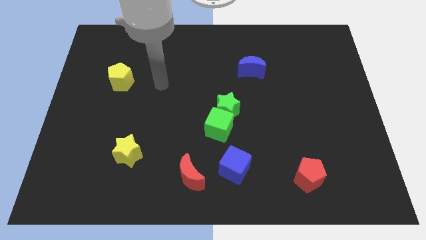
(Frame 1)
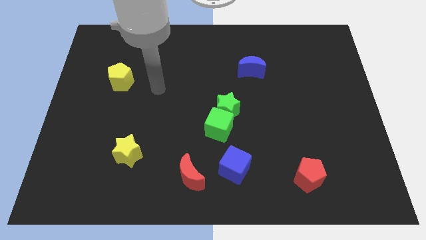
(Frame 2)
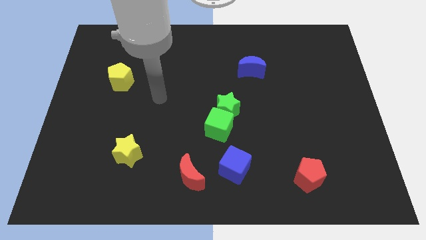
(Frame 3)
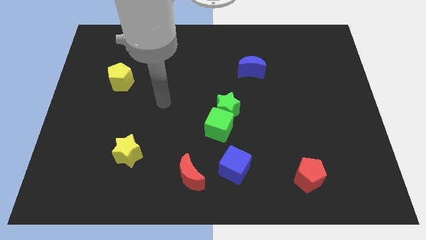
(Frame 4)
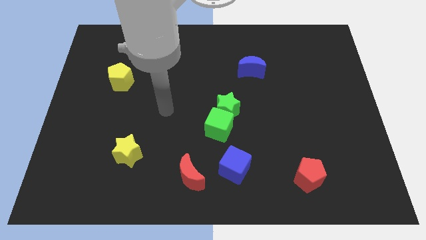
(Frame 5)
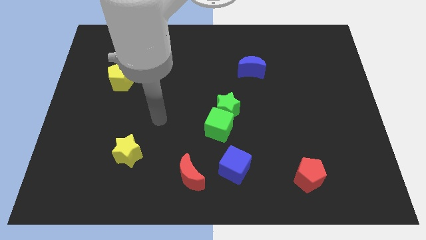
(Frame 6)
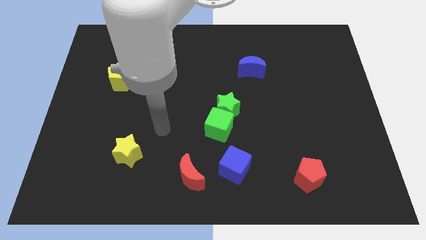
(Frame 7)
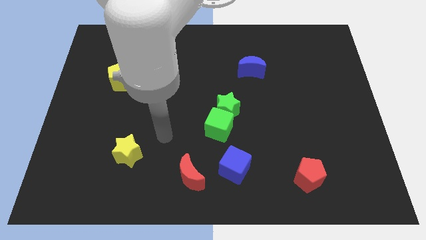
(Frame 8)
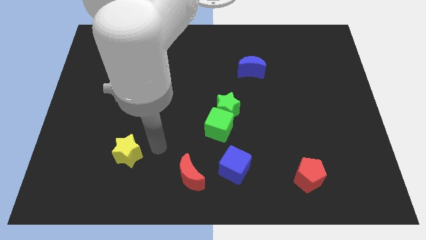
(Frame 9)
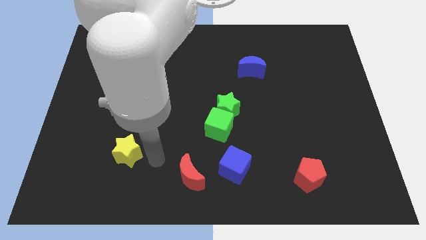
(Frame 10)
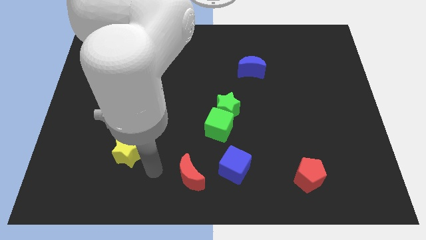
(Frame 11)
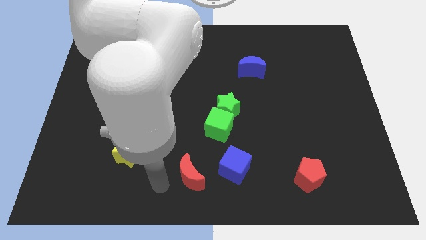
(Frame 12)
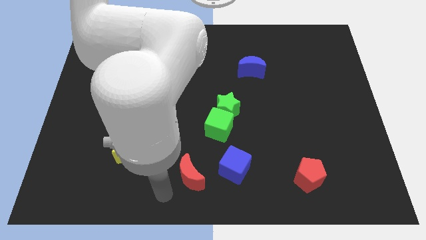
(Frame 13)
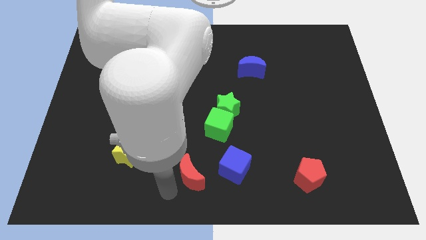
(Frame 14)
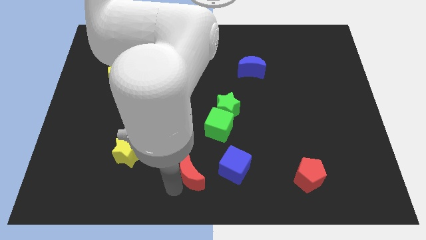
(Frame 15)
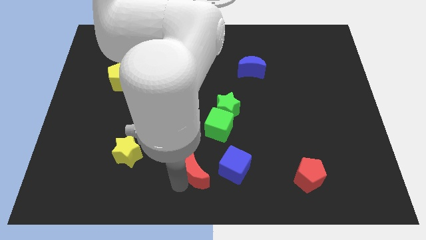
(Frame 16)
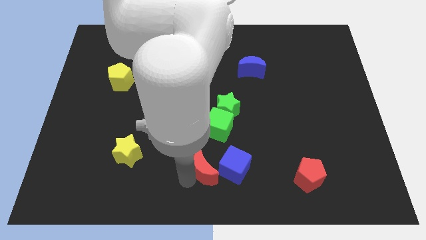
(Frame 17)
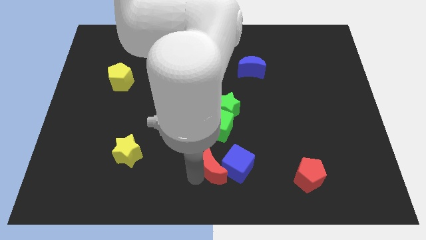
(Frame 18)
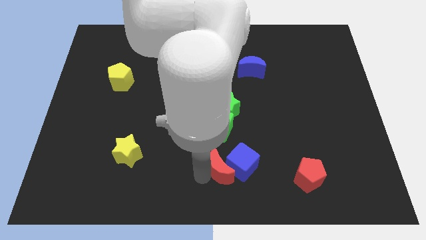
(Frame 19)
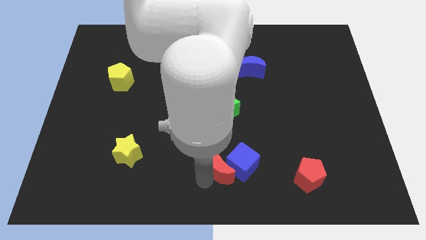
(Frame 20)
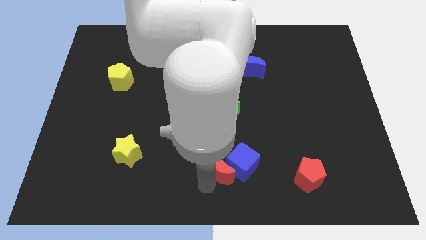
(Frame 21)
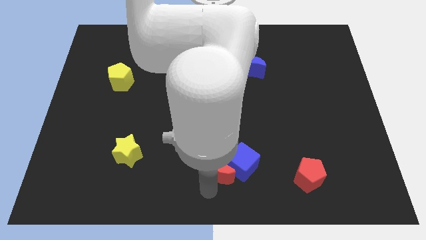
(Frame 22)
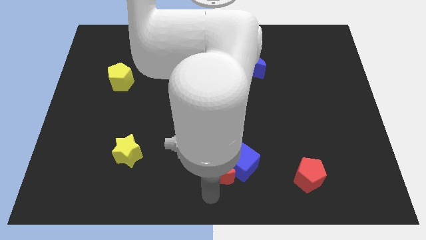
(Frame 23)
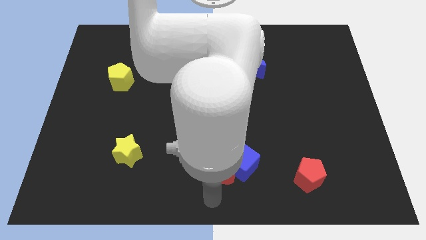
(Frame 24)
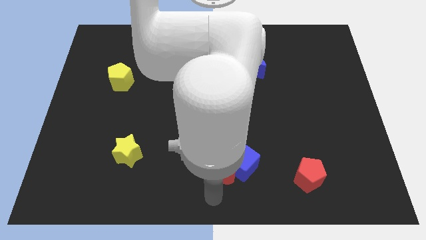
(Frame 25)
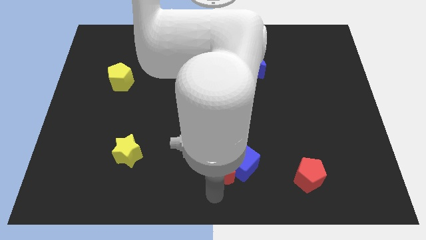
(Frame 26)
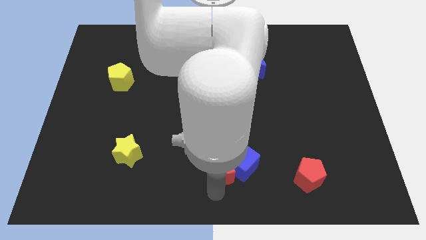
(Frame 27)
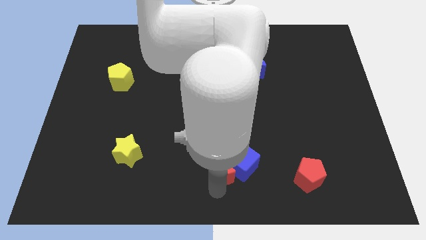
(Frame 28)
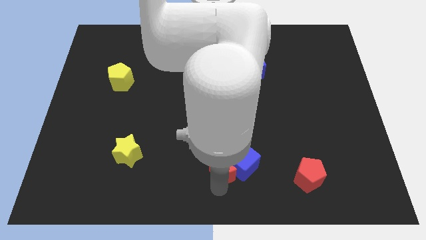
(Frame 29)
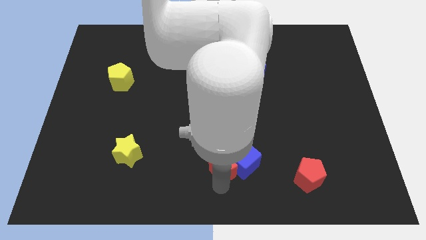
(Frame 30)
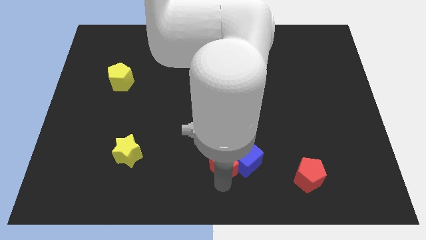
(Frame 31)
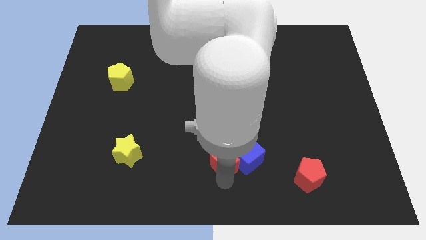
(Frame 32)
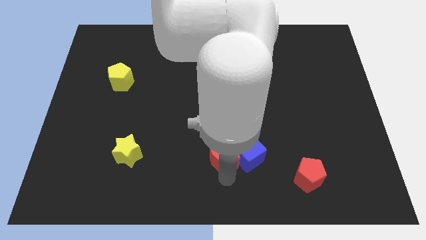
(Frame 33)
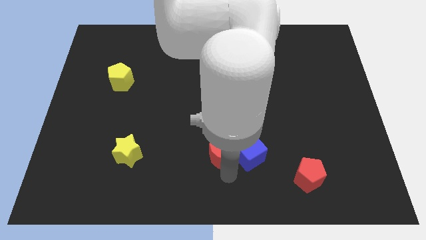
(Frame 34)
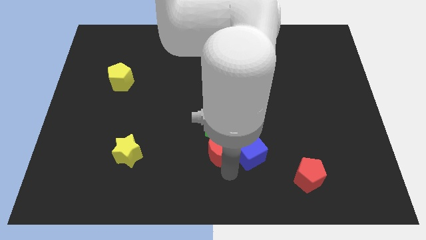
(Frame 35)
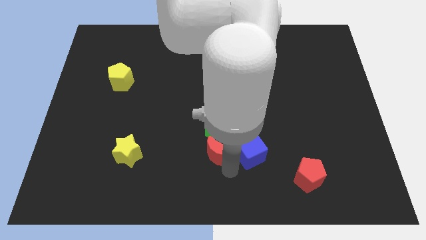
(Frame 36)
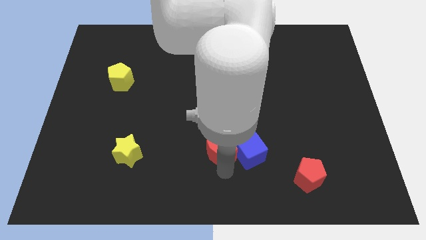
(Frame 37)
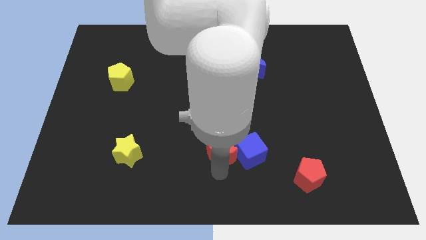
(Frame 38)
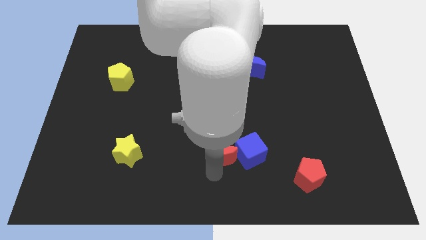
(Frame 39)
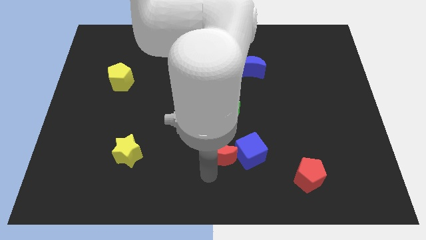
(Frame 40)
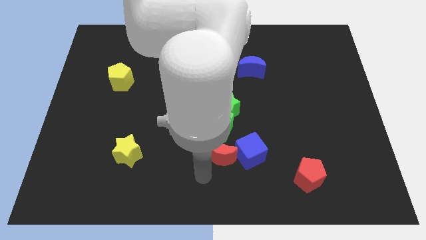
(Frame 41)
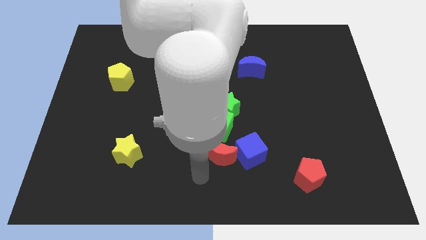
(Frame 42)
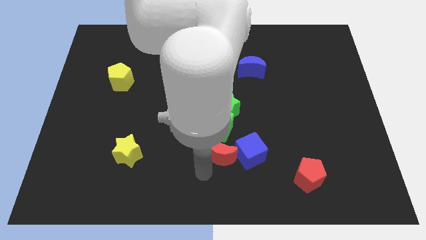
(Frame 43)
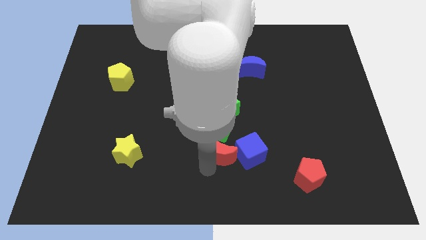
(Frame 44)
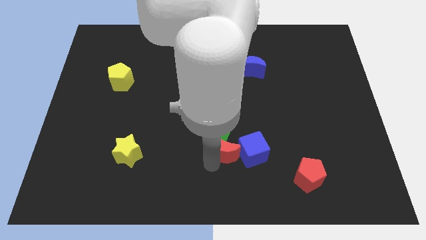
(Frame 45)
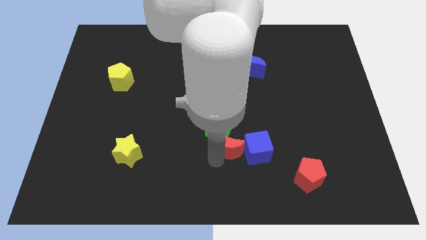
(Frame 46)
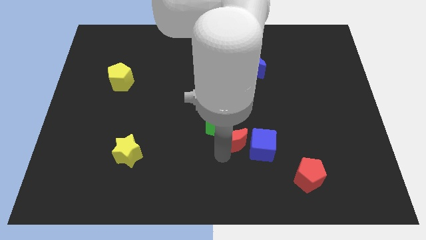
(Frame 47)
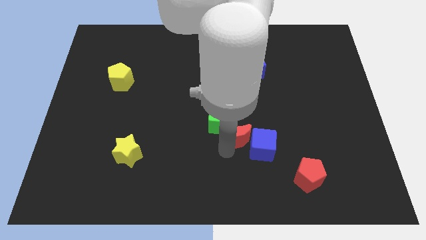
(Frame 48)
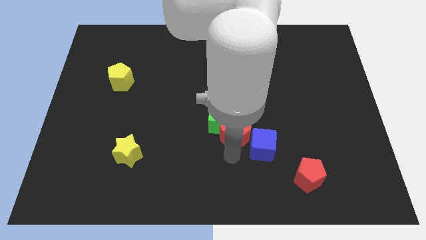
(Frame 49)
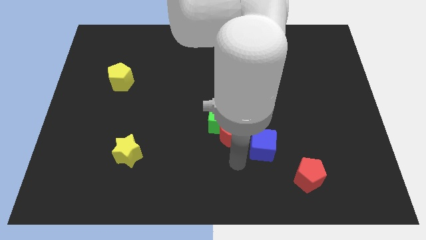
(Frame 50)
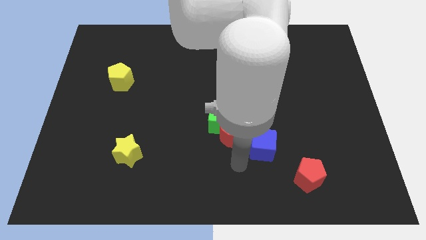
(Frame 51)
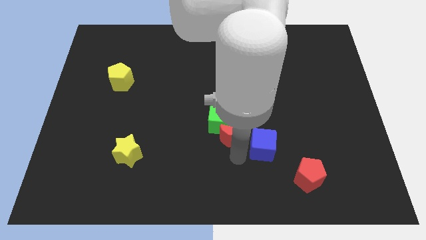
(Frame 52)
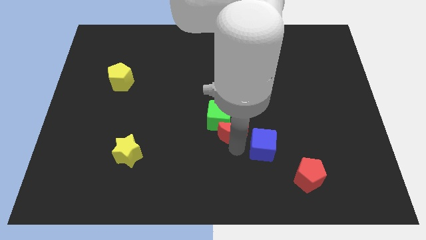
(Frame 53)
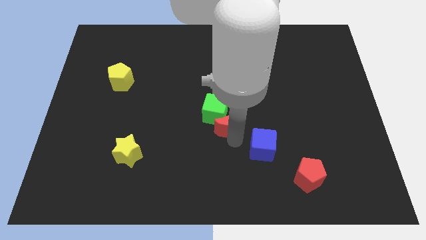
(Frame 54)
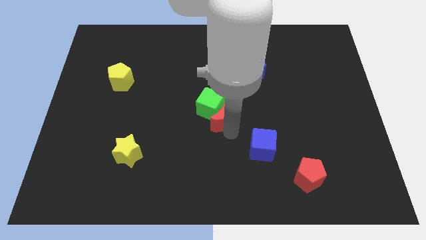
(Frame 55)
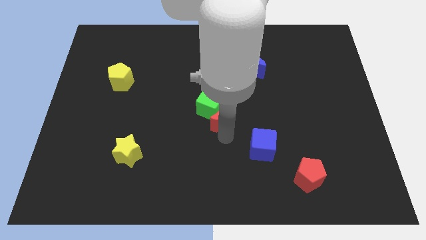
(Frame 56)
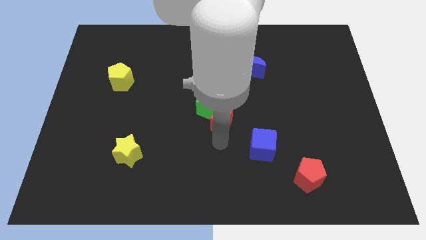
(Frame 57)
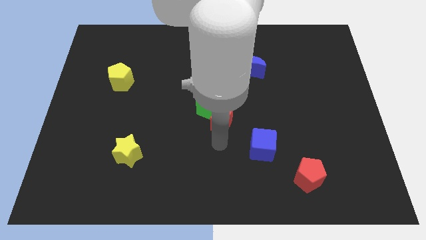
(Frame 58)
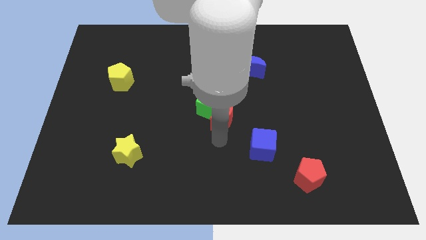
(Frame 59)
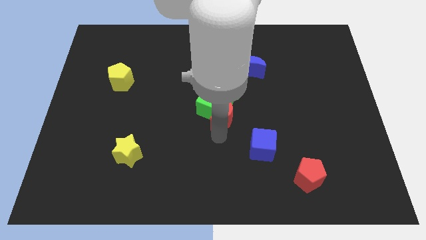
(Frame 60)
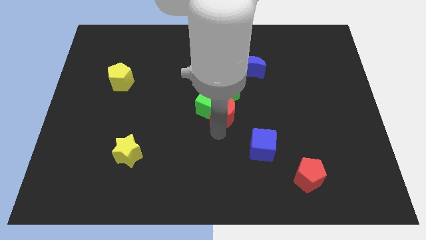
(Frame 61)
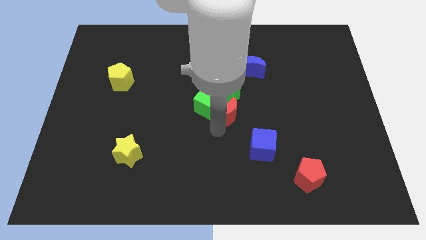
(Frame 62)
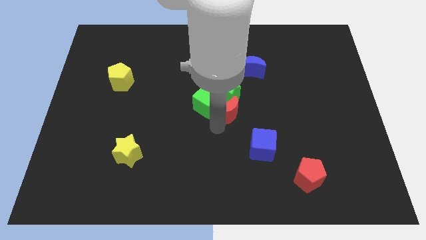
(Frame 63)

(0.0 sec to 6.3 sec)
slide the red moon towards the green star

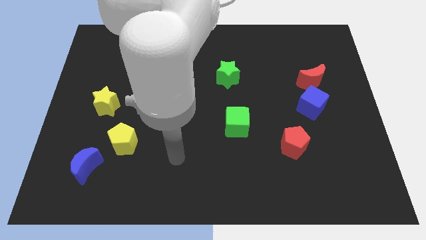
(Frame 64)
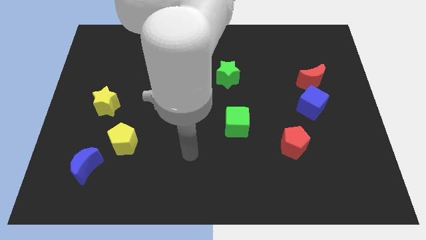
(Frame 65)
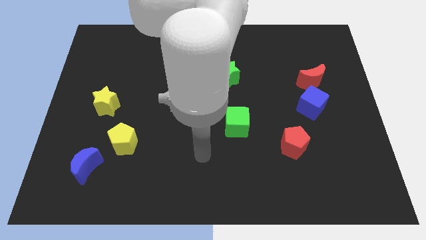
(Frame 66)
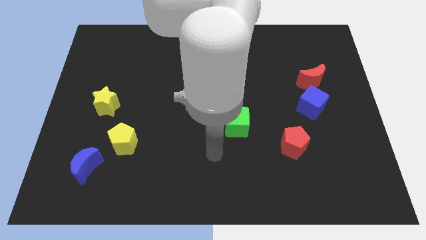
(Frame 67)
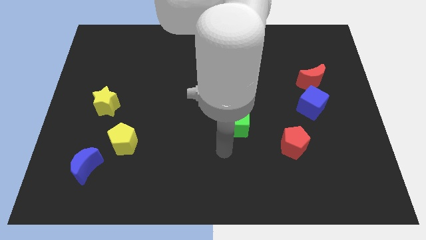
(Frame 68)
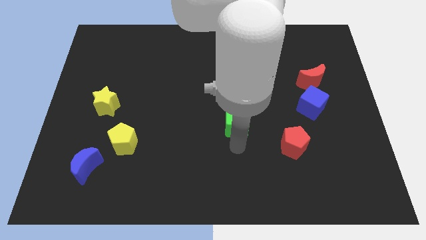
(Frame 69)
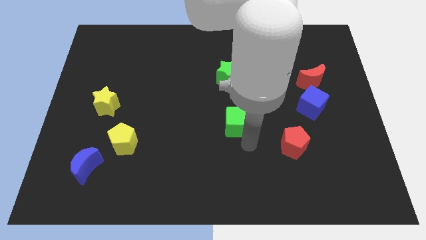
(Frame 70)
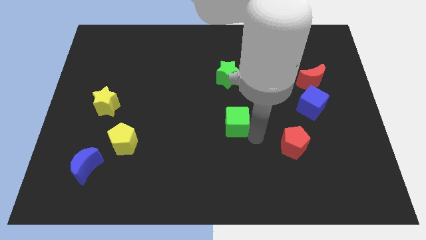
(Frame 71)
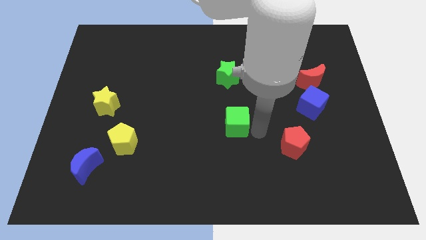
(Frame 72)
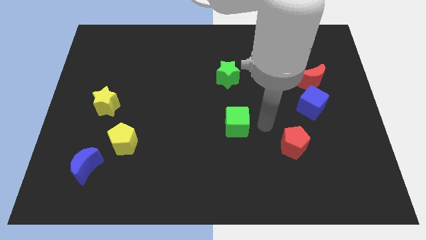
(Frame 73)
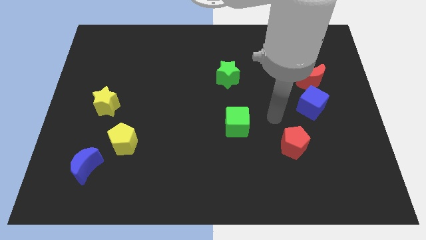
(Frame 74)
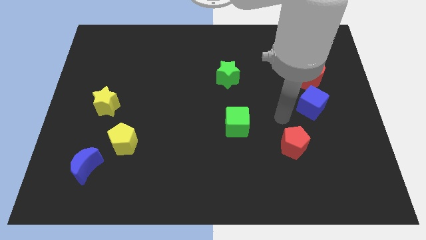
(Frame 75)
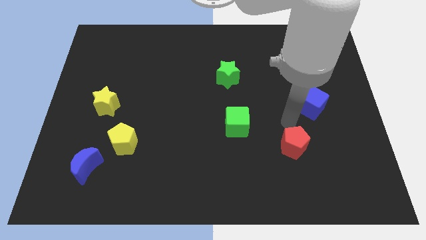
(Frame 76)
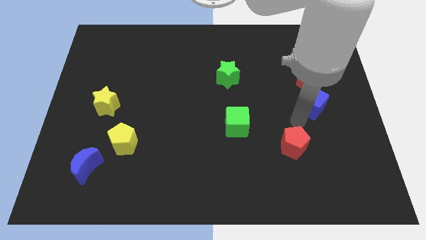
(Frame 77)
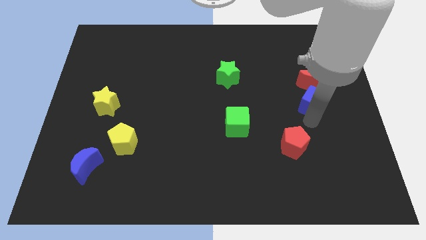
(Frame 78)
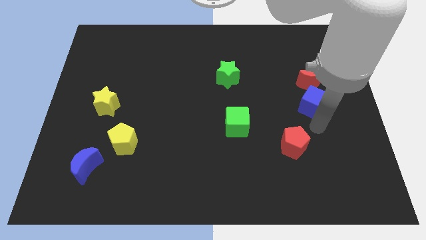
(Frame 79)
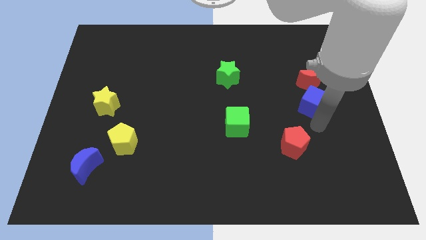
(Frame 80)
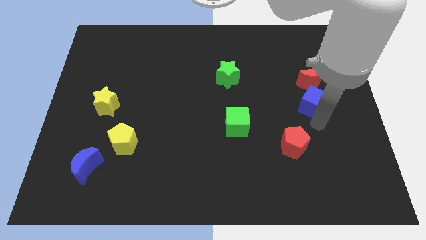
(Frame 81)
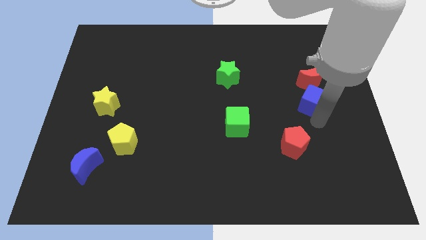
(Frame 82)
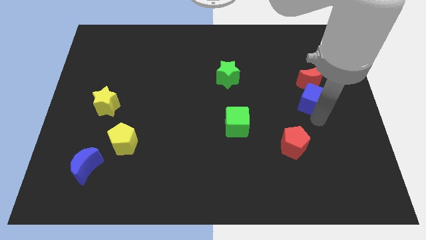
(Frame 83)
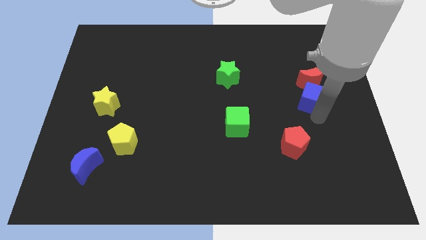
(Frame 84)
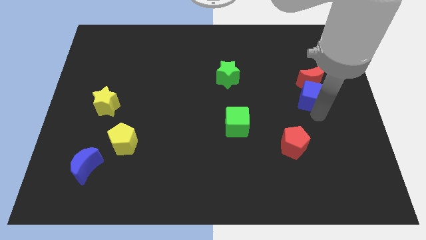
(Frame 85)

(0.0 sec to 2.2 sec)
push the blue cube close to the red moon
